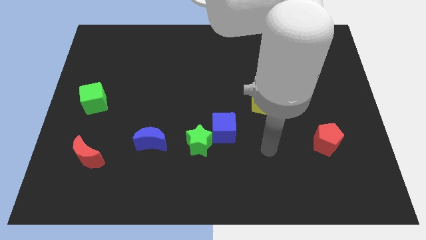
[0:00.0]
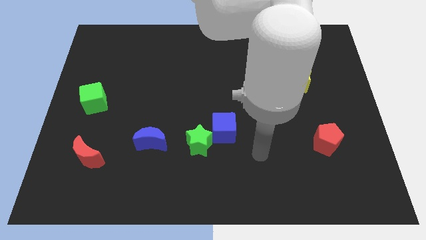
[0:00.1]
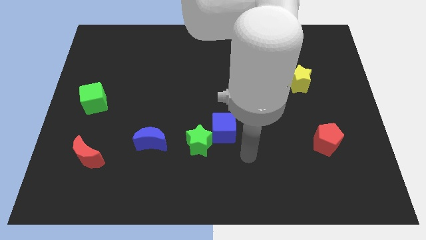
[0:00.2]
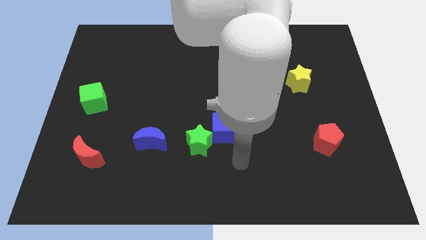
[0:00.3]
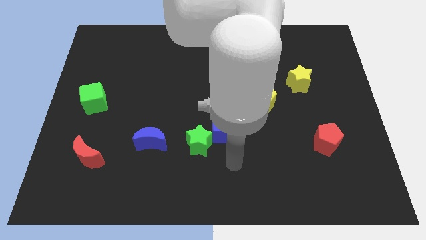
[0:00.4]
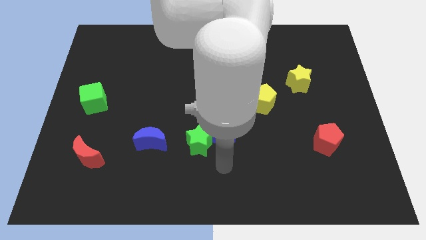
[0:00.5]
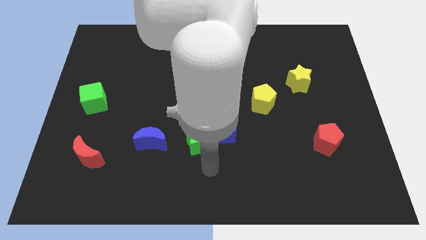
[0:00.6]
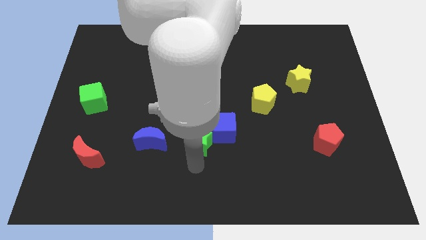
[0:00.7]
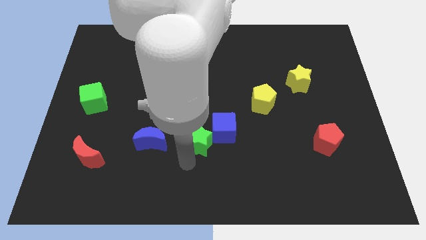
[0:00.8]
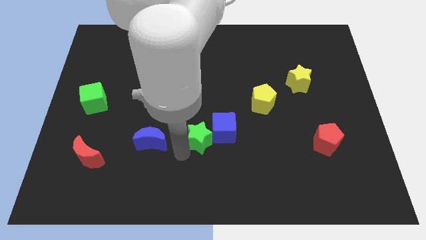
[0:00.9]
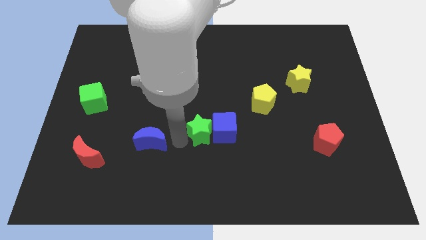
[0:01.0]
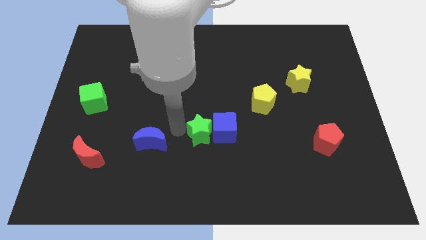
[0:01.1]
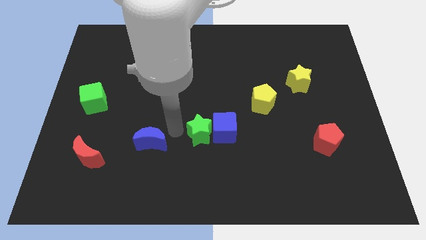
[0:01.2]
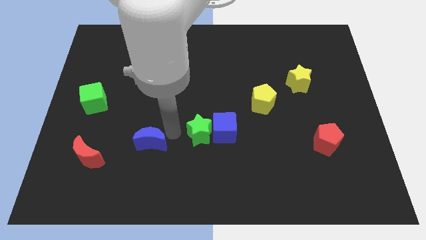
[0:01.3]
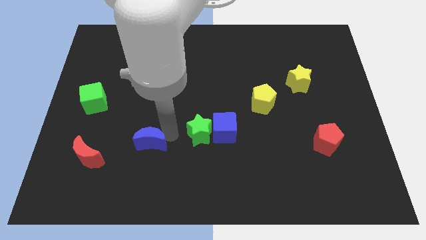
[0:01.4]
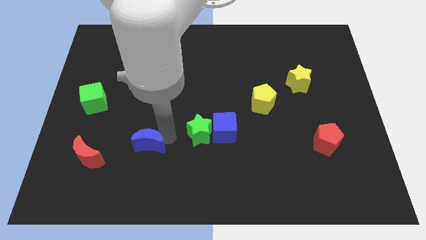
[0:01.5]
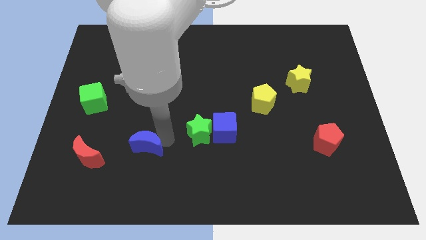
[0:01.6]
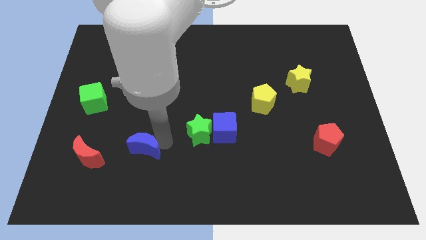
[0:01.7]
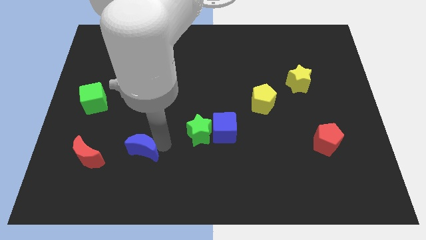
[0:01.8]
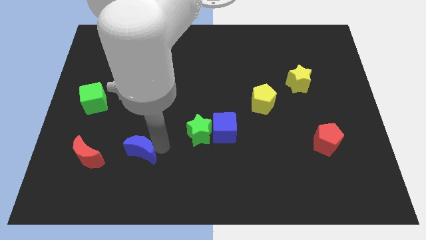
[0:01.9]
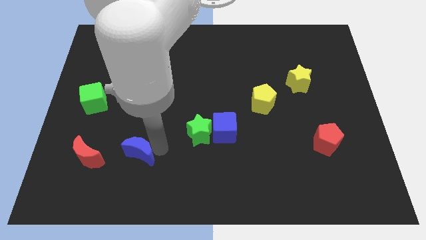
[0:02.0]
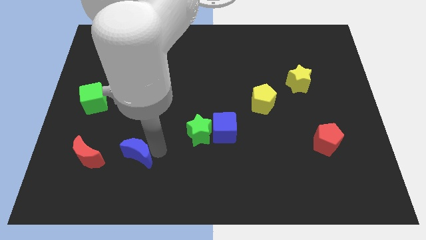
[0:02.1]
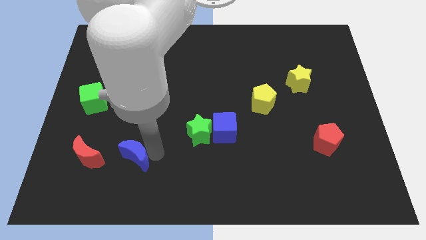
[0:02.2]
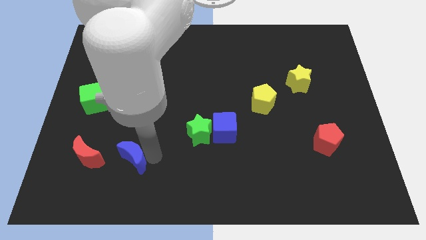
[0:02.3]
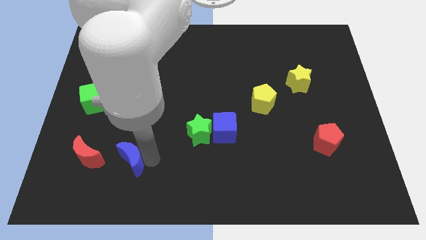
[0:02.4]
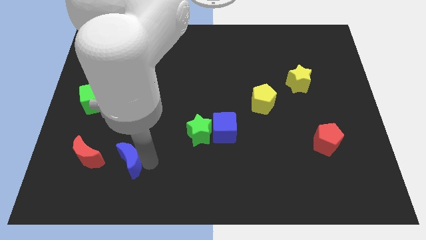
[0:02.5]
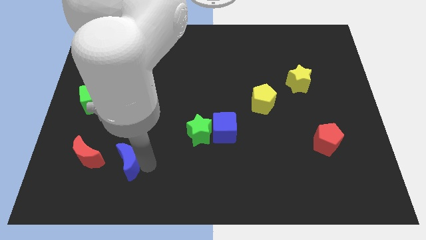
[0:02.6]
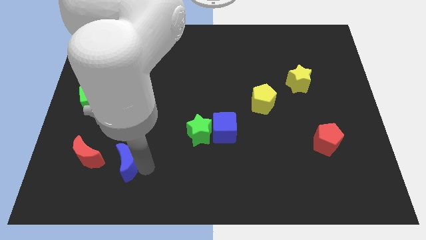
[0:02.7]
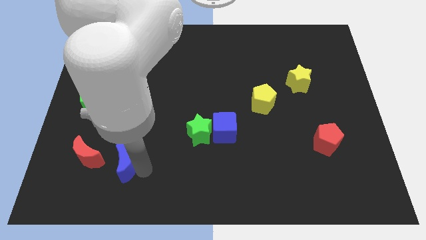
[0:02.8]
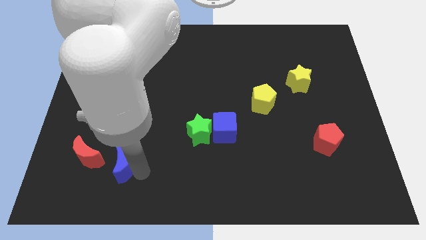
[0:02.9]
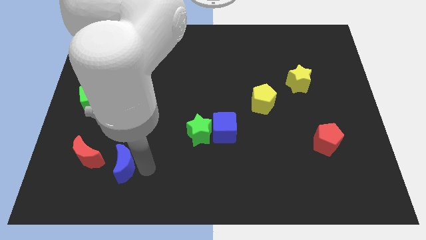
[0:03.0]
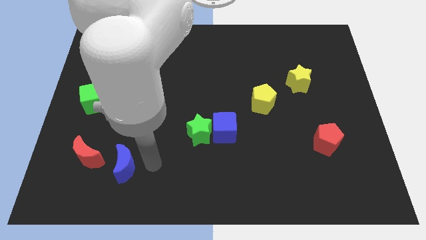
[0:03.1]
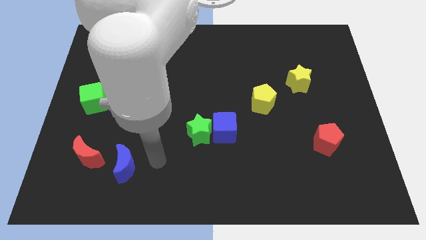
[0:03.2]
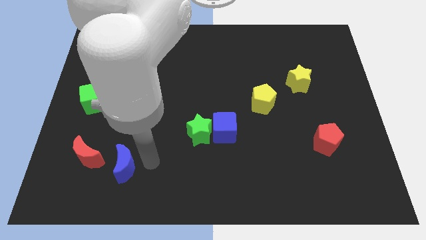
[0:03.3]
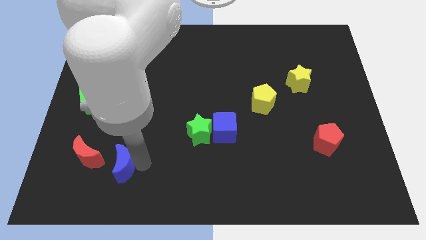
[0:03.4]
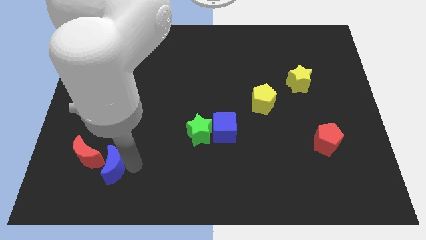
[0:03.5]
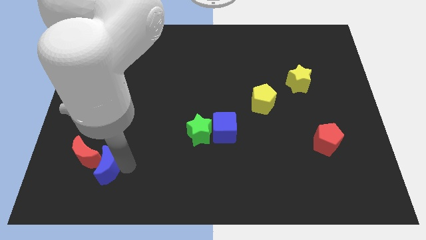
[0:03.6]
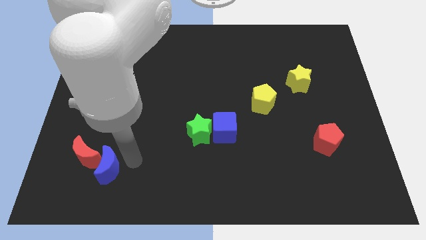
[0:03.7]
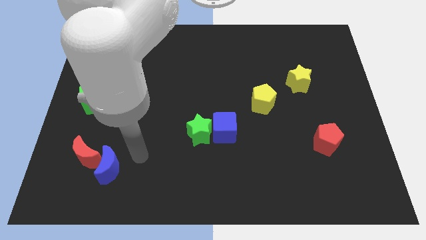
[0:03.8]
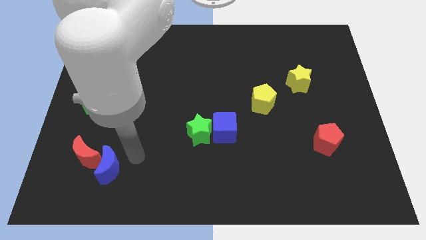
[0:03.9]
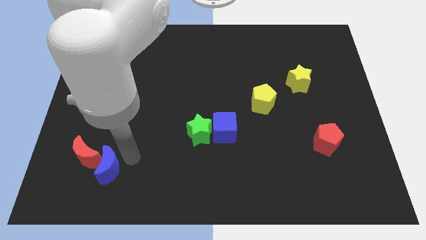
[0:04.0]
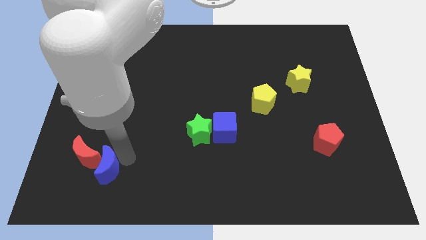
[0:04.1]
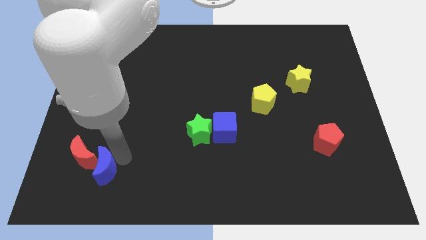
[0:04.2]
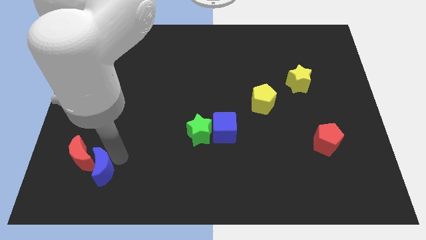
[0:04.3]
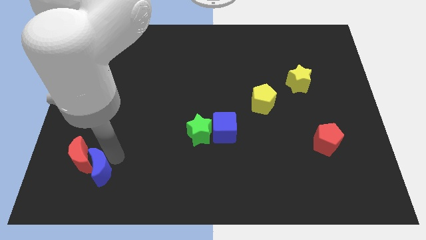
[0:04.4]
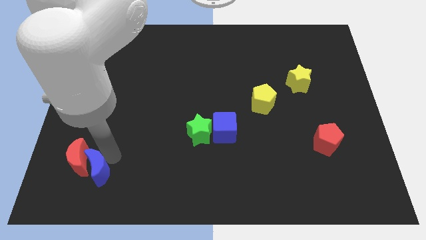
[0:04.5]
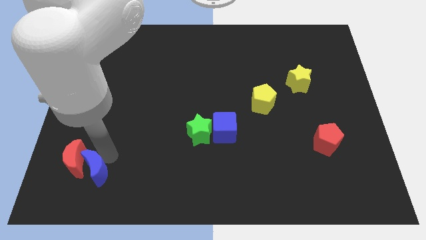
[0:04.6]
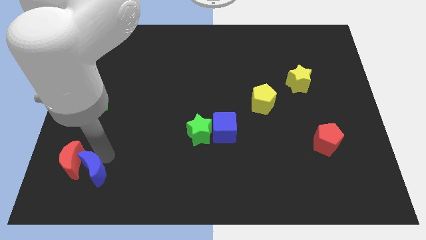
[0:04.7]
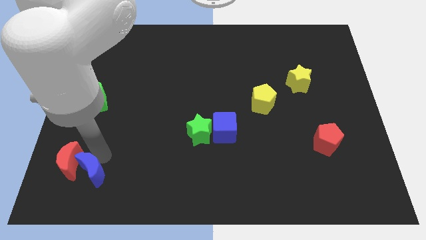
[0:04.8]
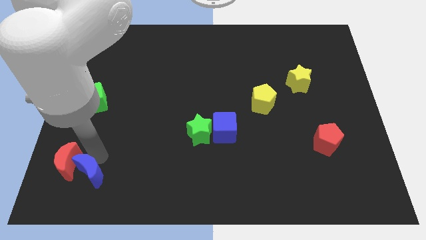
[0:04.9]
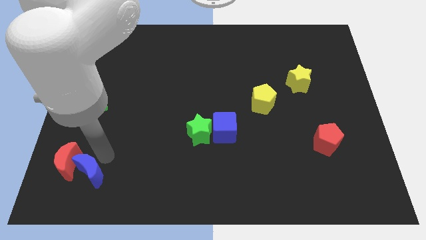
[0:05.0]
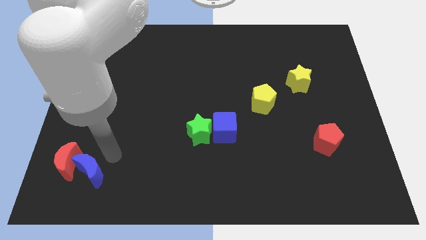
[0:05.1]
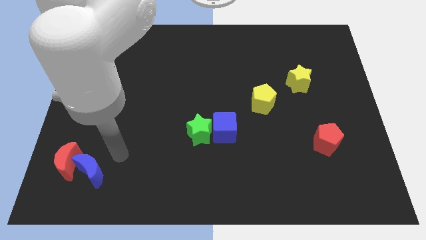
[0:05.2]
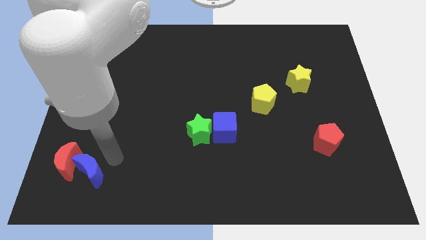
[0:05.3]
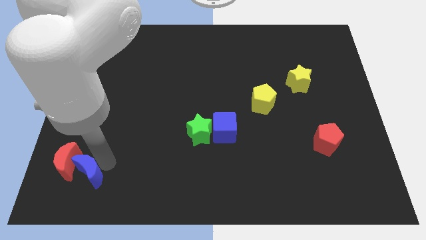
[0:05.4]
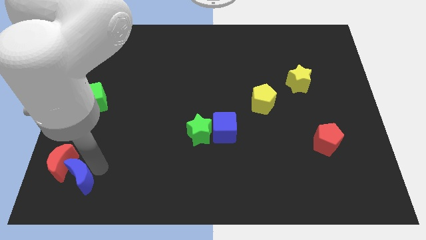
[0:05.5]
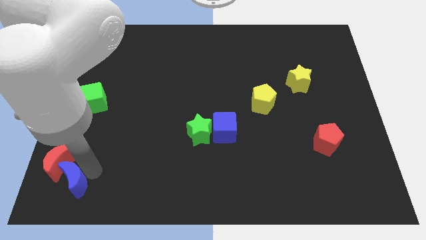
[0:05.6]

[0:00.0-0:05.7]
put the blue moon to the lower left corner
